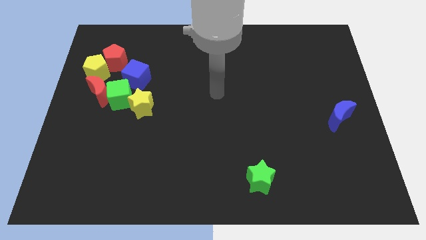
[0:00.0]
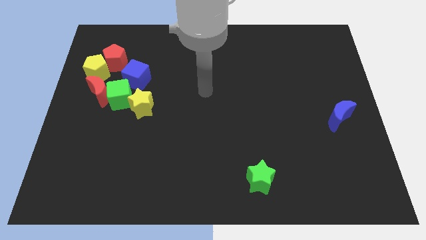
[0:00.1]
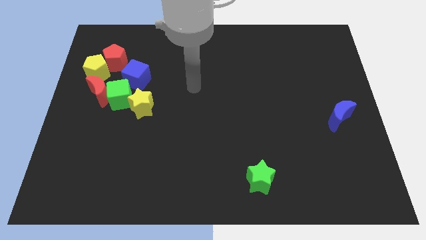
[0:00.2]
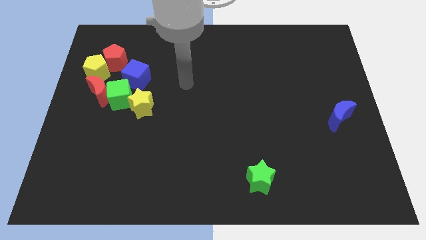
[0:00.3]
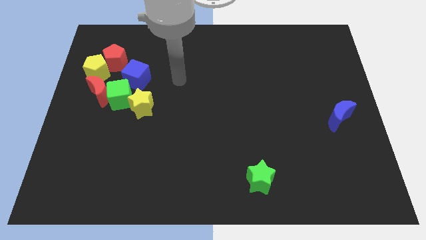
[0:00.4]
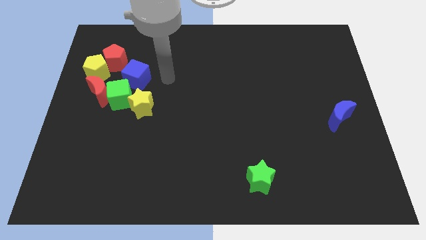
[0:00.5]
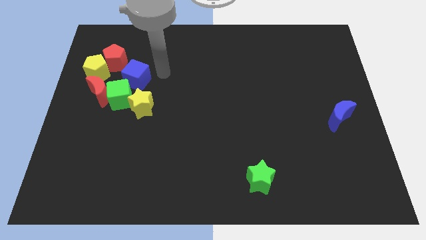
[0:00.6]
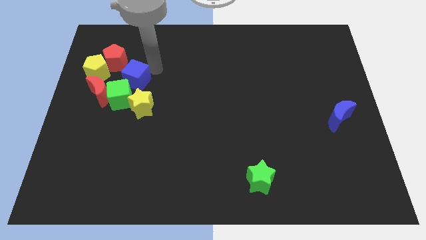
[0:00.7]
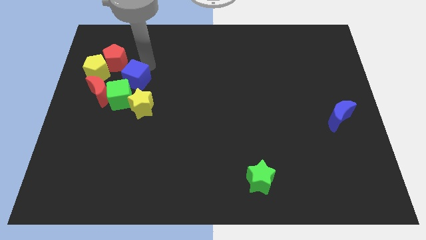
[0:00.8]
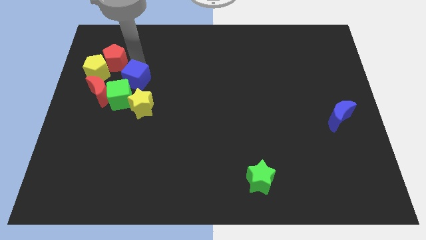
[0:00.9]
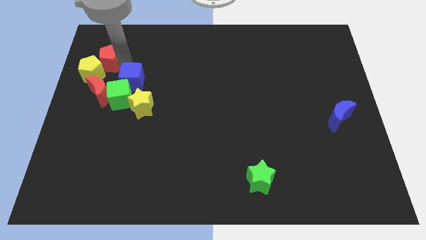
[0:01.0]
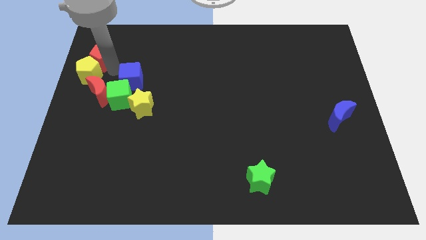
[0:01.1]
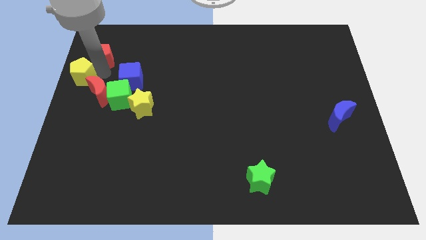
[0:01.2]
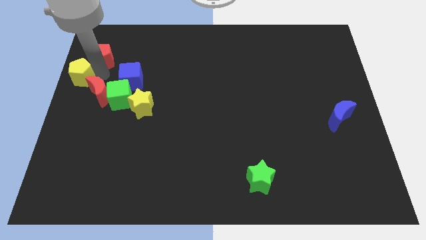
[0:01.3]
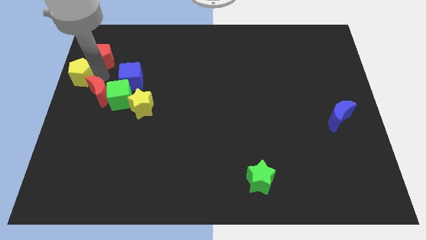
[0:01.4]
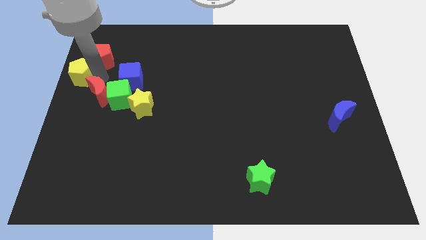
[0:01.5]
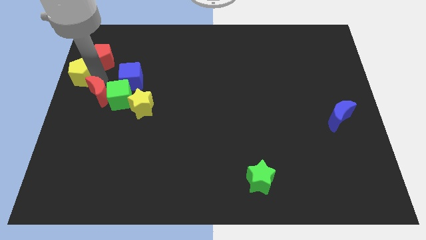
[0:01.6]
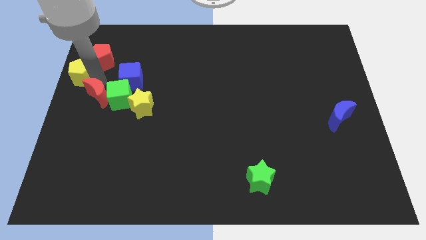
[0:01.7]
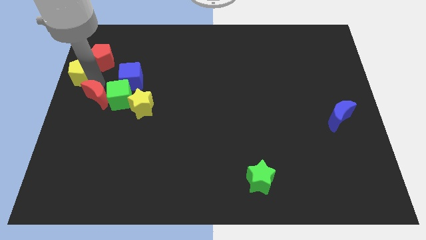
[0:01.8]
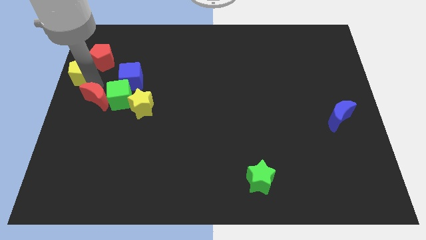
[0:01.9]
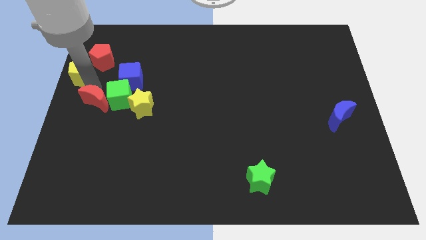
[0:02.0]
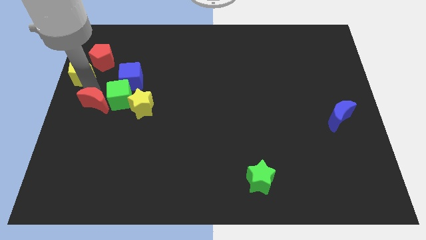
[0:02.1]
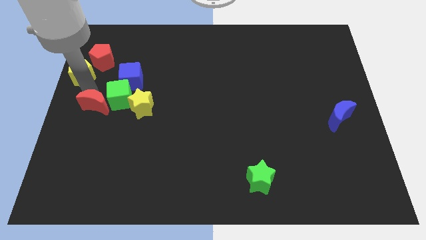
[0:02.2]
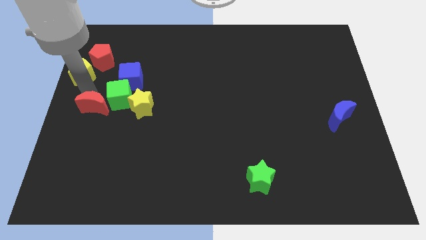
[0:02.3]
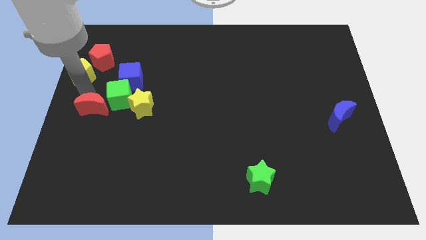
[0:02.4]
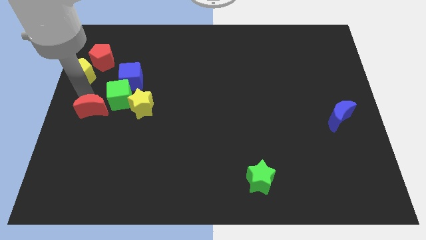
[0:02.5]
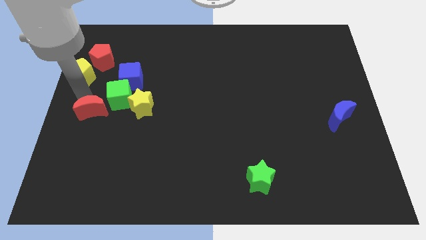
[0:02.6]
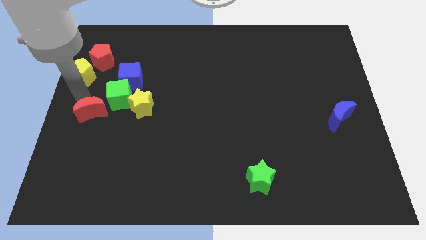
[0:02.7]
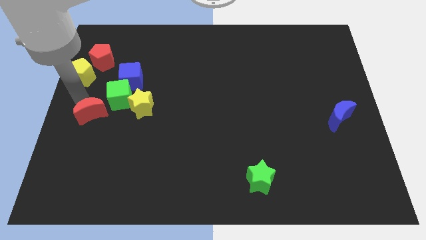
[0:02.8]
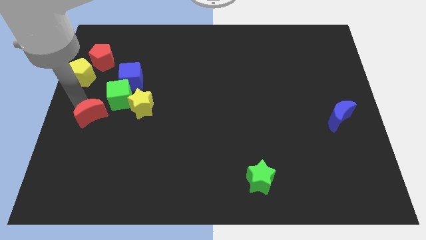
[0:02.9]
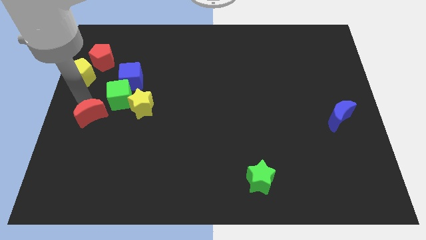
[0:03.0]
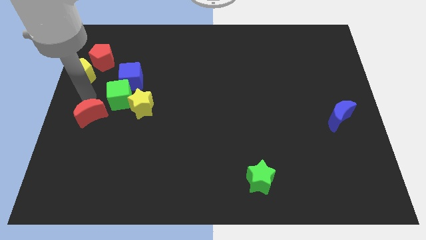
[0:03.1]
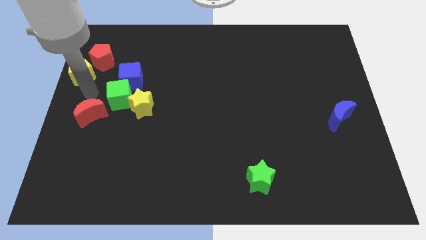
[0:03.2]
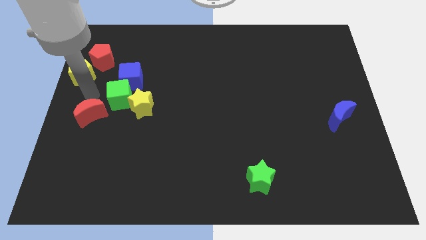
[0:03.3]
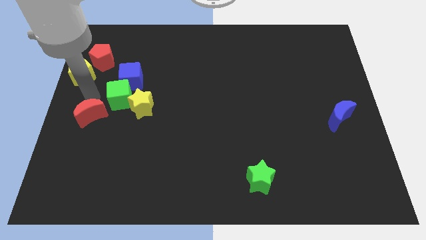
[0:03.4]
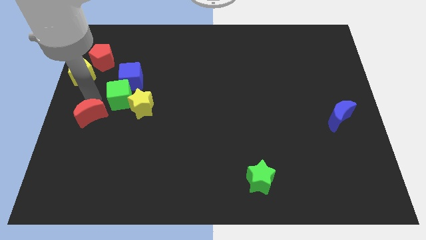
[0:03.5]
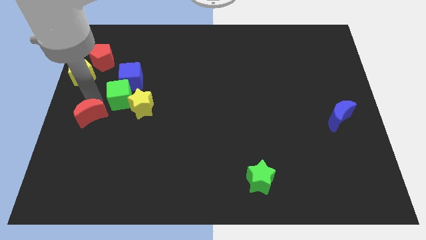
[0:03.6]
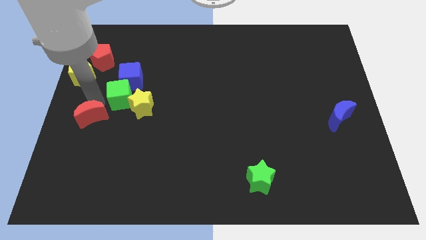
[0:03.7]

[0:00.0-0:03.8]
slide the red moon a little down

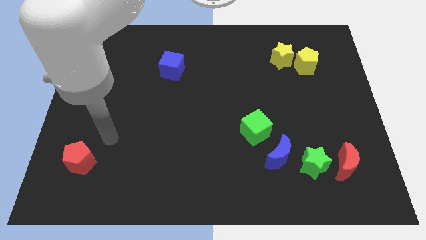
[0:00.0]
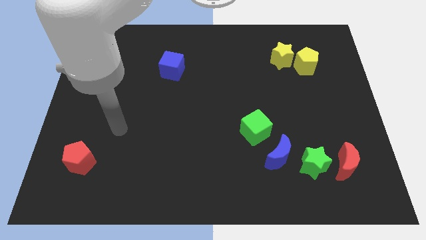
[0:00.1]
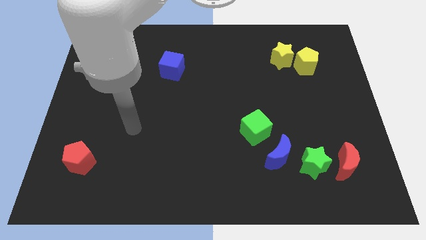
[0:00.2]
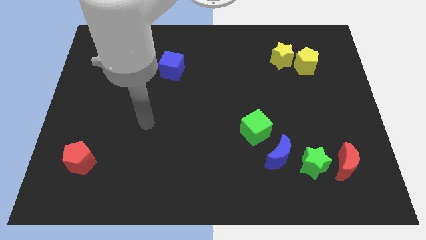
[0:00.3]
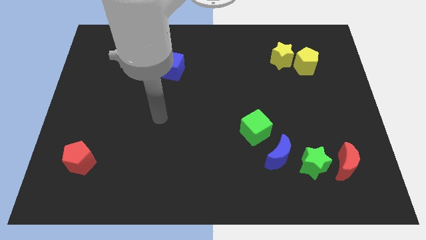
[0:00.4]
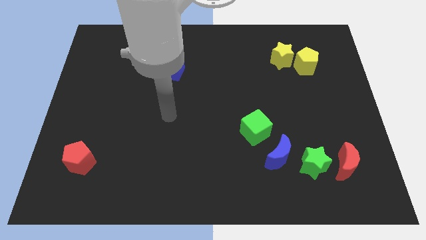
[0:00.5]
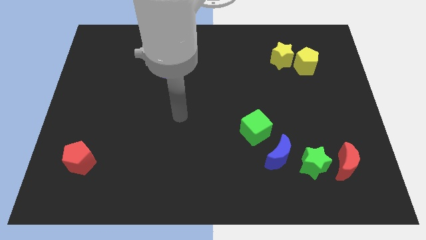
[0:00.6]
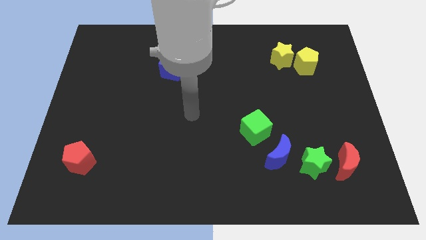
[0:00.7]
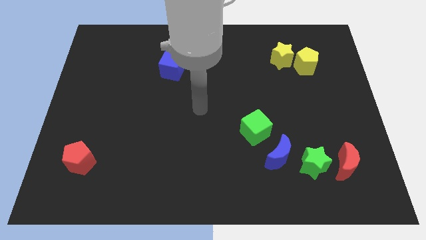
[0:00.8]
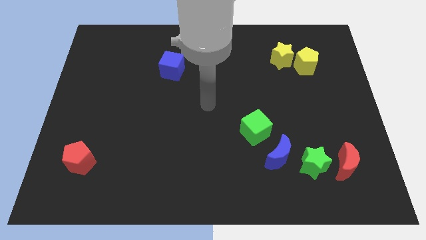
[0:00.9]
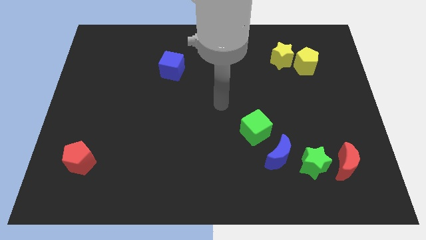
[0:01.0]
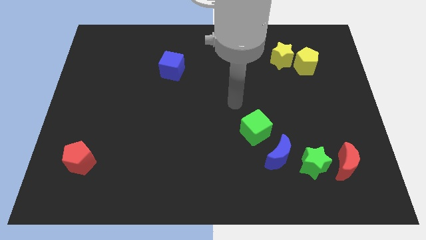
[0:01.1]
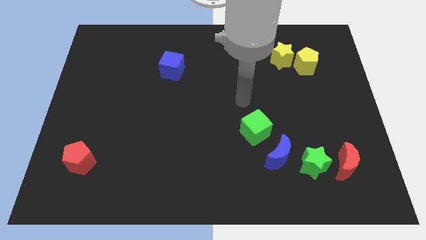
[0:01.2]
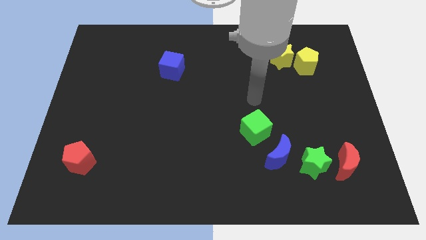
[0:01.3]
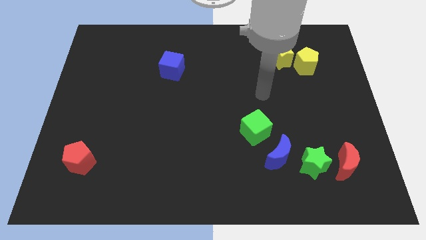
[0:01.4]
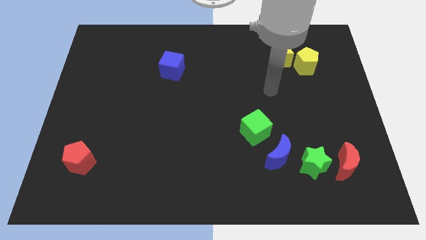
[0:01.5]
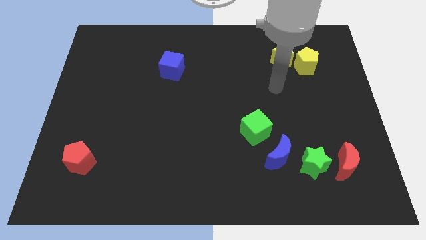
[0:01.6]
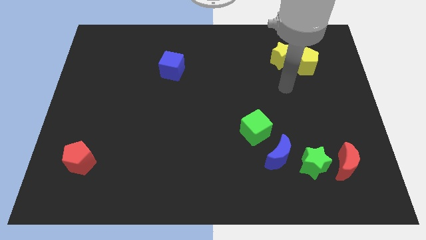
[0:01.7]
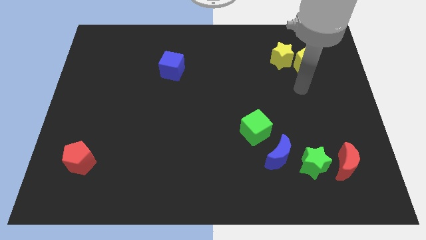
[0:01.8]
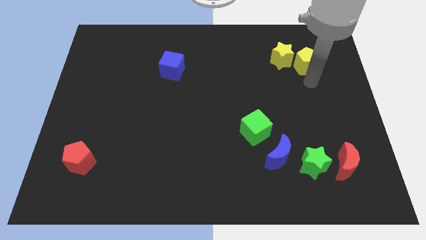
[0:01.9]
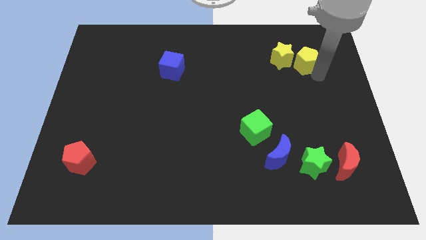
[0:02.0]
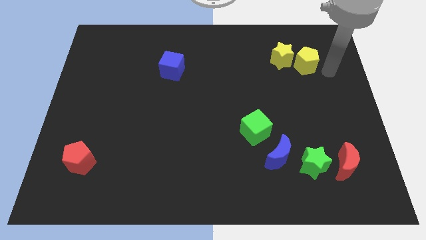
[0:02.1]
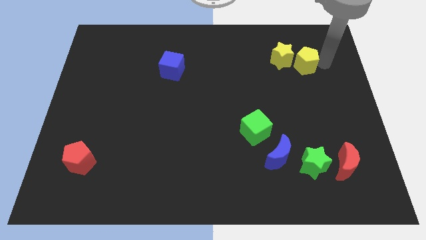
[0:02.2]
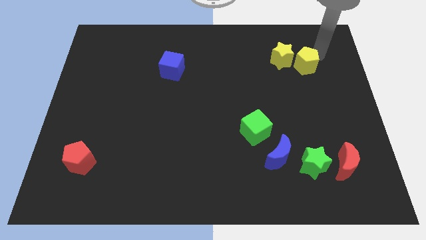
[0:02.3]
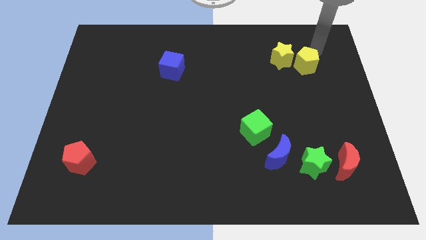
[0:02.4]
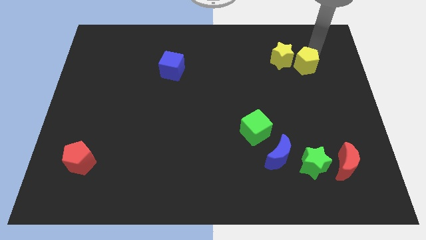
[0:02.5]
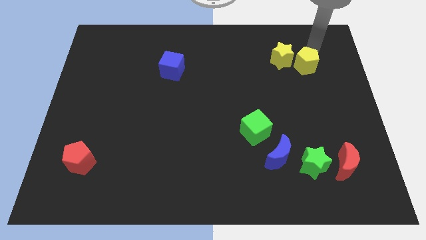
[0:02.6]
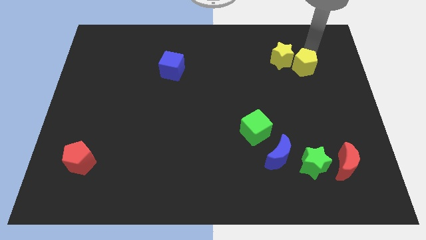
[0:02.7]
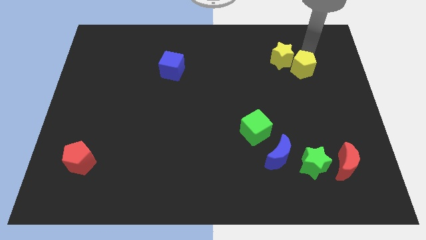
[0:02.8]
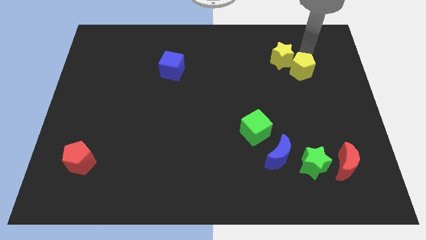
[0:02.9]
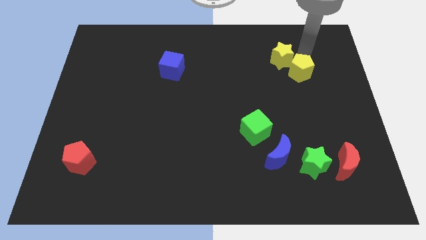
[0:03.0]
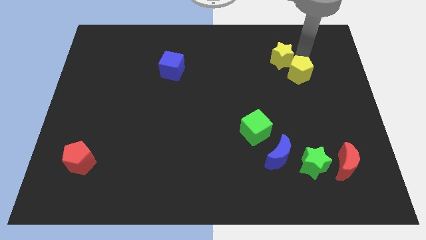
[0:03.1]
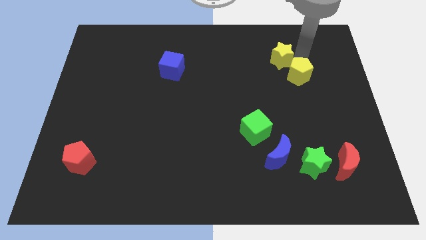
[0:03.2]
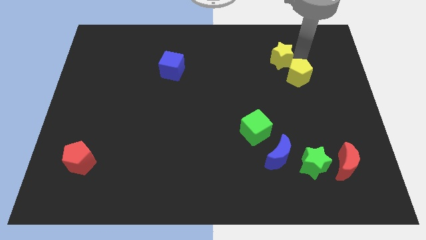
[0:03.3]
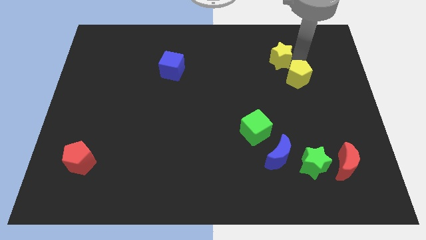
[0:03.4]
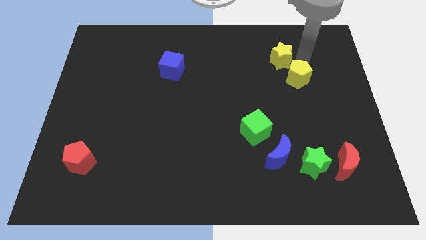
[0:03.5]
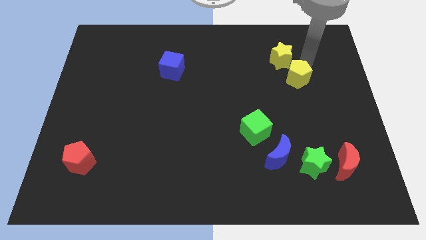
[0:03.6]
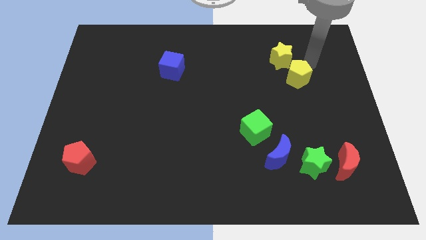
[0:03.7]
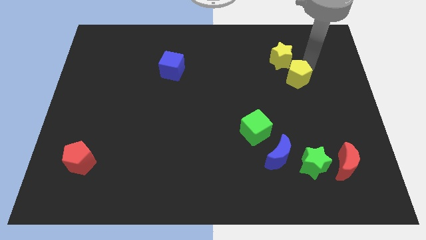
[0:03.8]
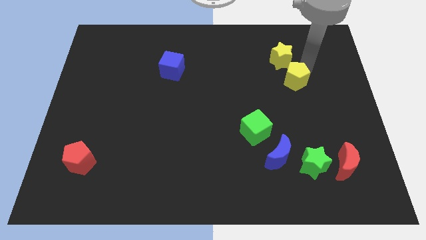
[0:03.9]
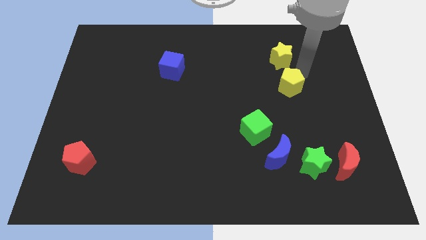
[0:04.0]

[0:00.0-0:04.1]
move the yellow pentagon a little down and then to the left
